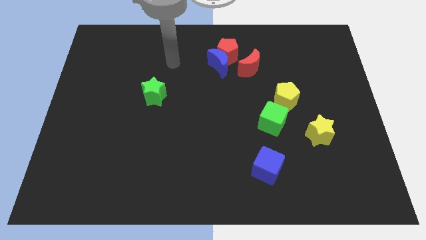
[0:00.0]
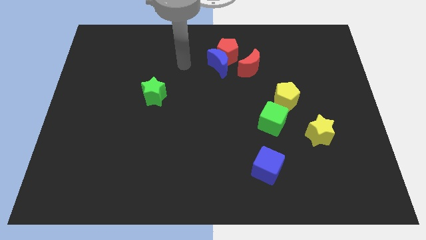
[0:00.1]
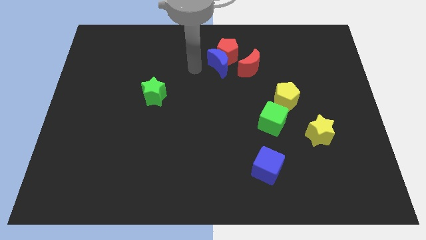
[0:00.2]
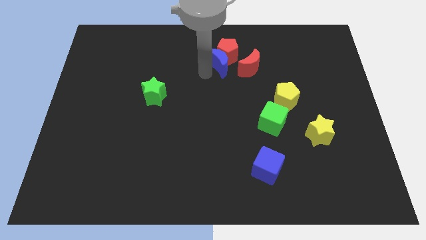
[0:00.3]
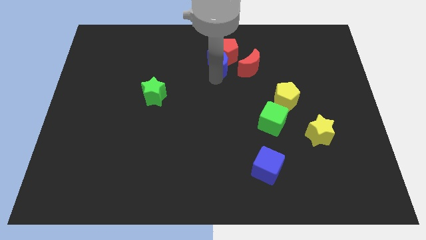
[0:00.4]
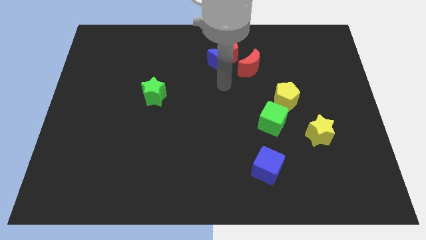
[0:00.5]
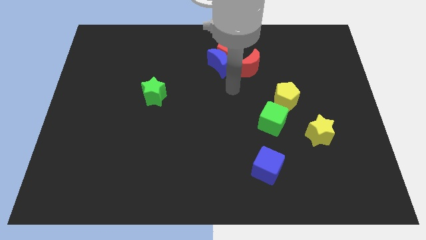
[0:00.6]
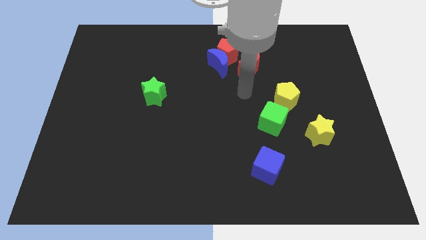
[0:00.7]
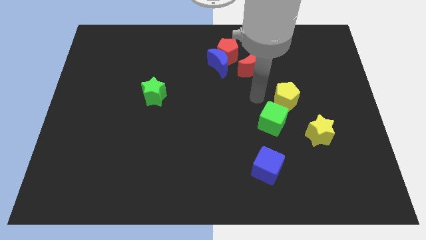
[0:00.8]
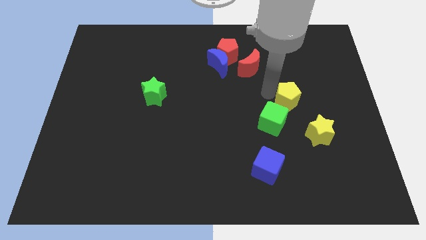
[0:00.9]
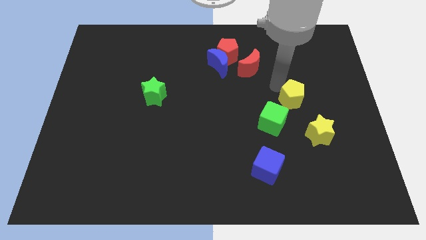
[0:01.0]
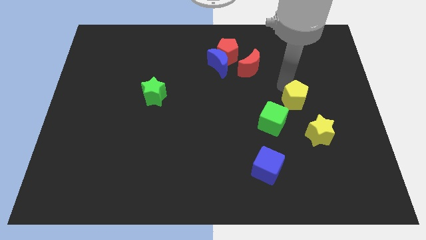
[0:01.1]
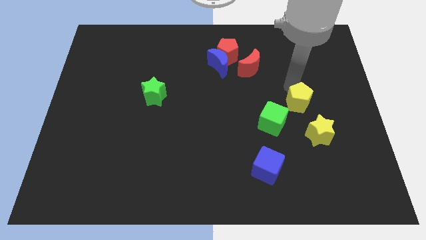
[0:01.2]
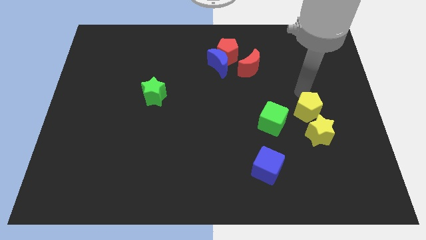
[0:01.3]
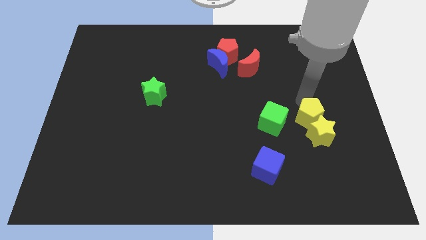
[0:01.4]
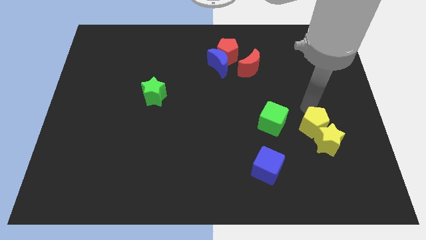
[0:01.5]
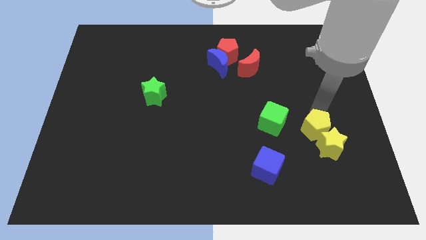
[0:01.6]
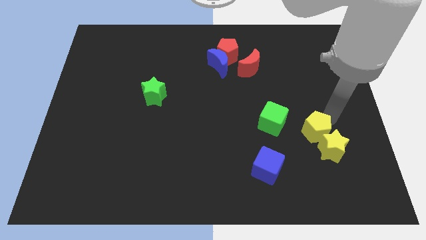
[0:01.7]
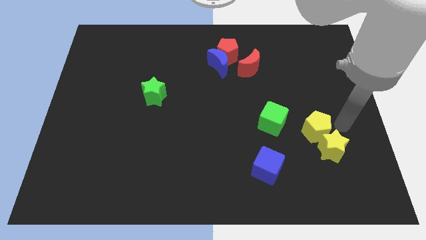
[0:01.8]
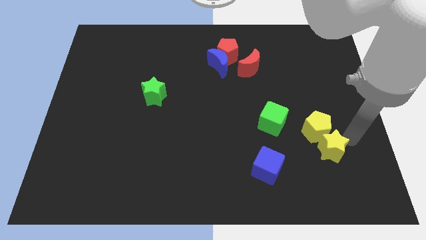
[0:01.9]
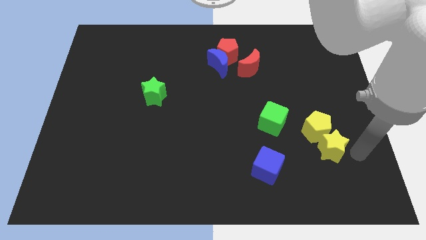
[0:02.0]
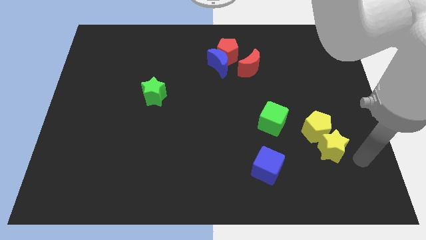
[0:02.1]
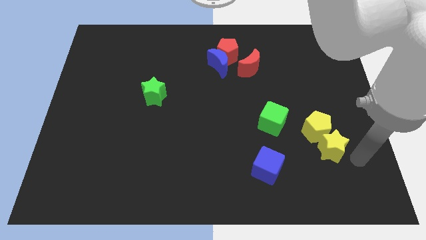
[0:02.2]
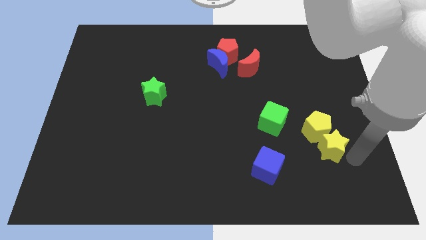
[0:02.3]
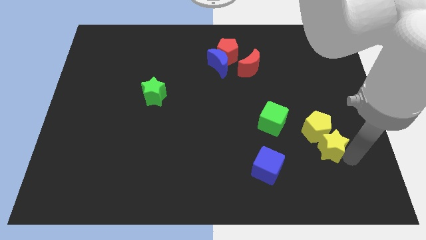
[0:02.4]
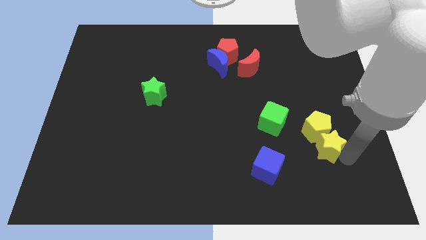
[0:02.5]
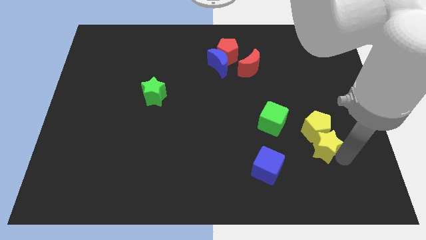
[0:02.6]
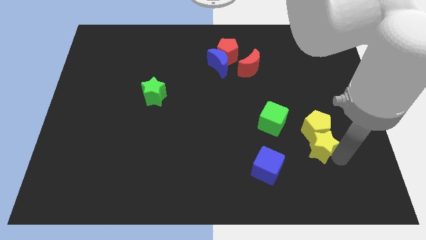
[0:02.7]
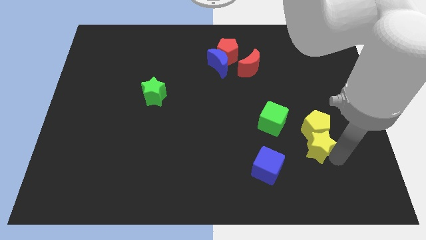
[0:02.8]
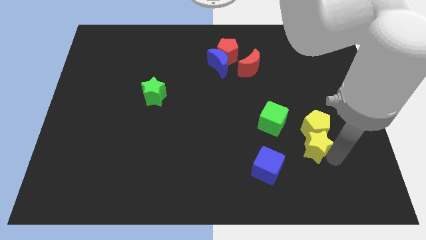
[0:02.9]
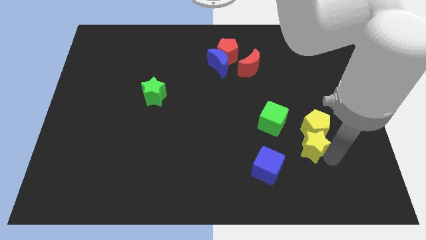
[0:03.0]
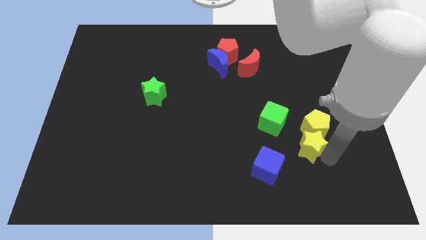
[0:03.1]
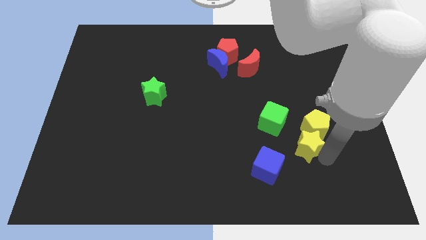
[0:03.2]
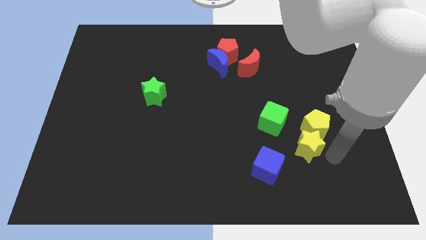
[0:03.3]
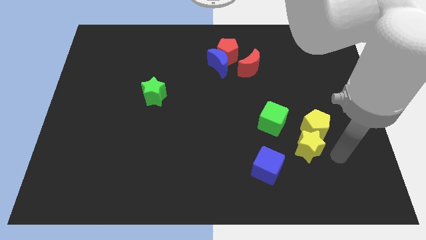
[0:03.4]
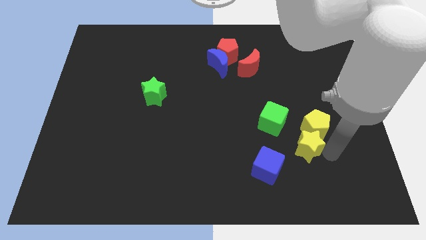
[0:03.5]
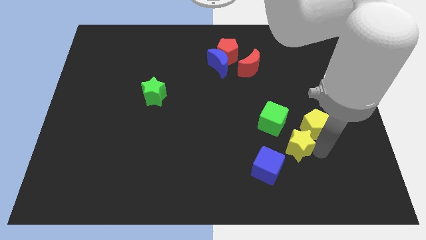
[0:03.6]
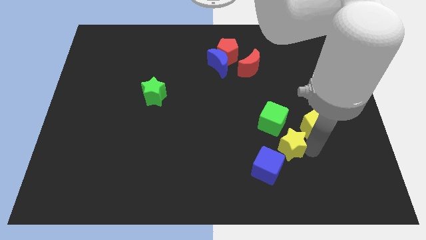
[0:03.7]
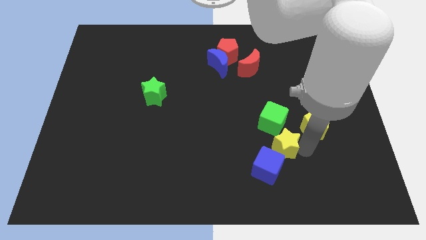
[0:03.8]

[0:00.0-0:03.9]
push the yellow star left a bit

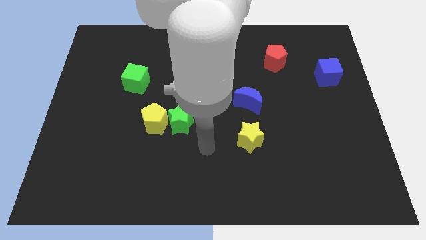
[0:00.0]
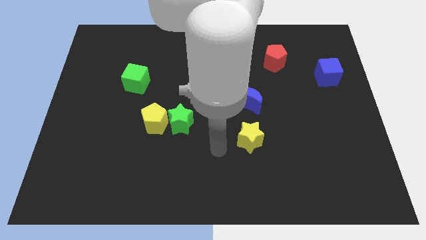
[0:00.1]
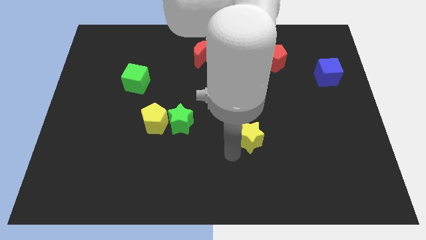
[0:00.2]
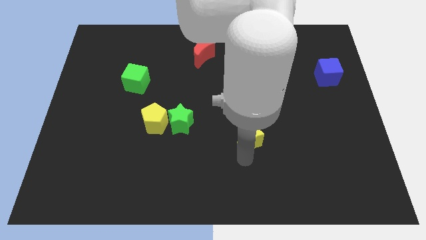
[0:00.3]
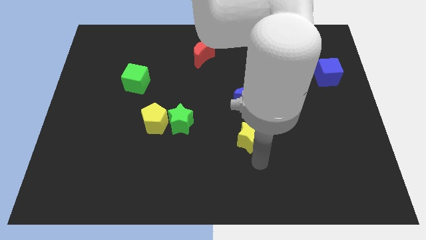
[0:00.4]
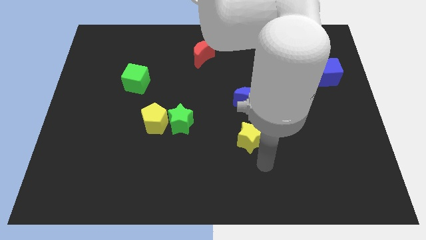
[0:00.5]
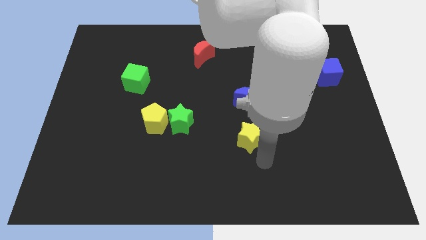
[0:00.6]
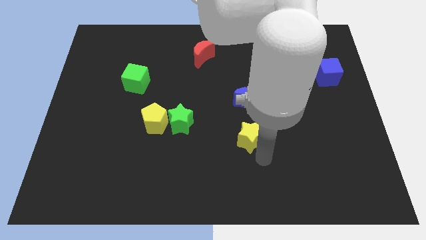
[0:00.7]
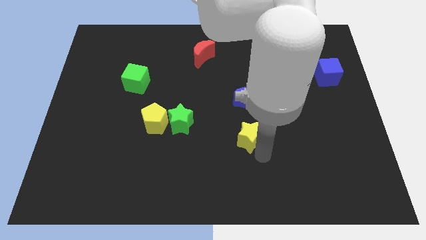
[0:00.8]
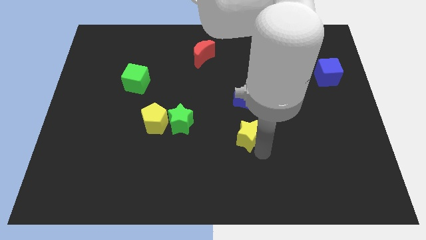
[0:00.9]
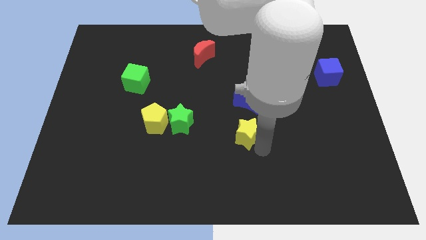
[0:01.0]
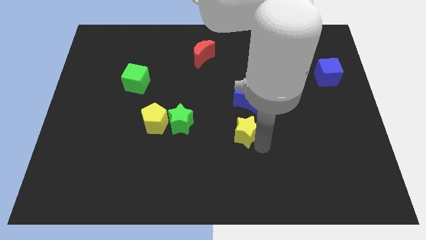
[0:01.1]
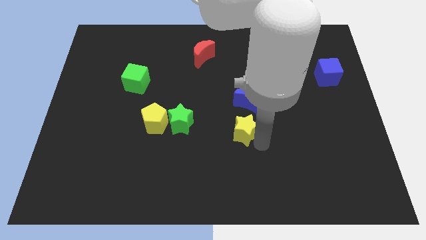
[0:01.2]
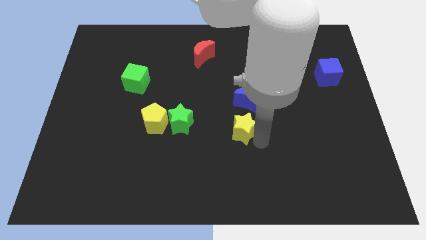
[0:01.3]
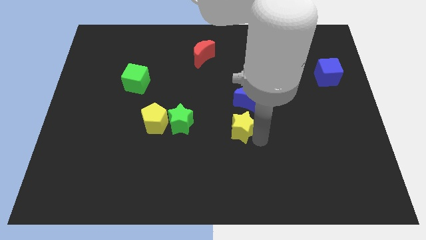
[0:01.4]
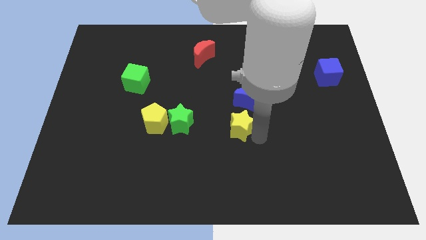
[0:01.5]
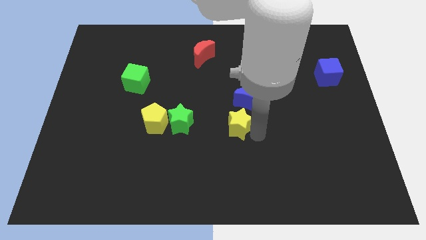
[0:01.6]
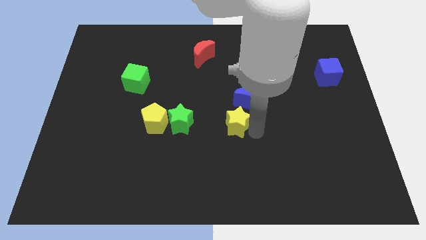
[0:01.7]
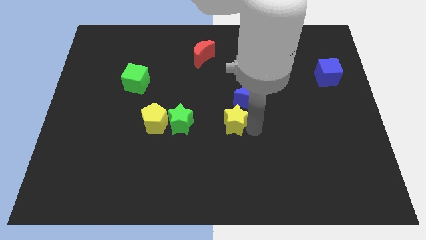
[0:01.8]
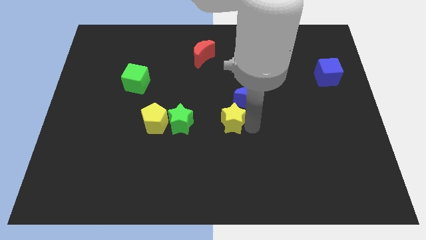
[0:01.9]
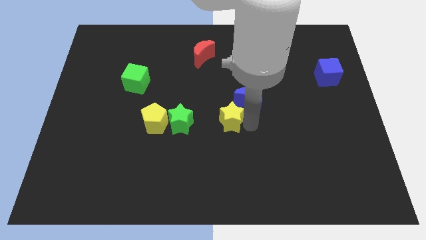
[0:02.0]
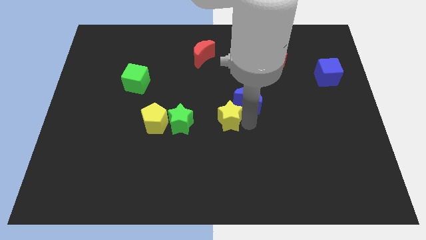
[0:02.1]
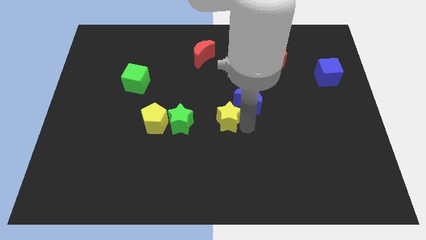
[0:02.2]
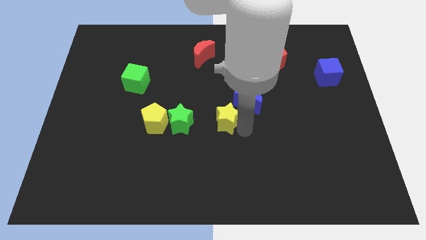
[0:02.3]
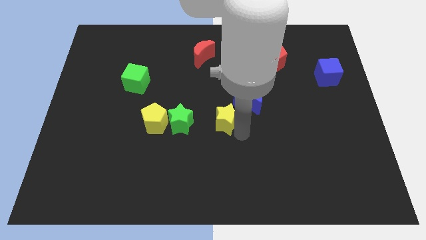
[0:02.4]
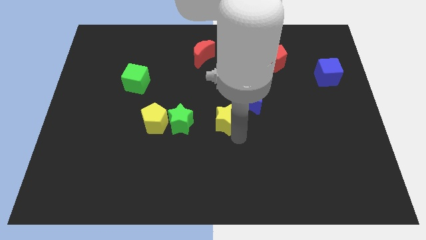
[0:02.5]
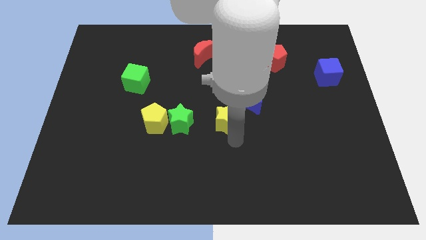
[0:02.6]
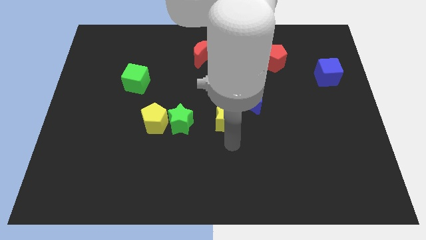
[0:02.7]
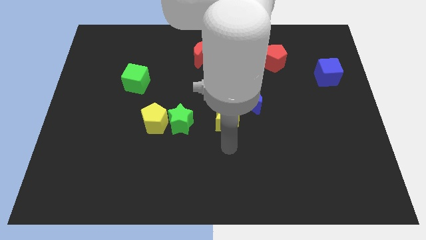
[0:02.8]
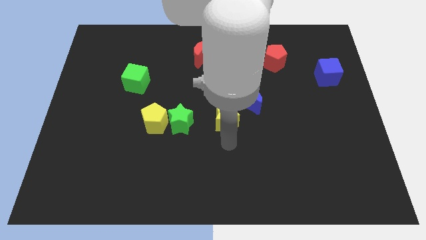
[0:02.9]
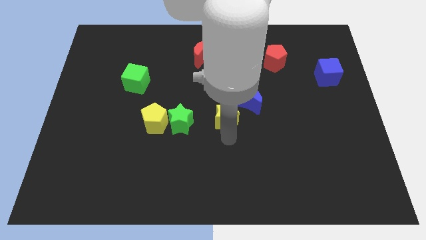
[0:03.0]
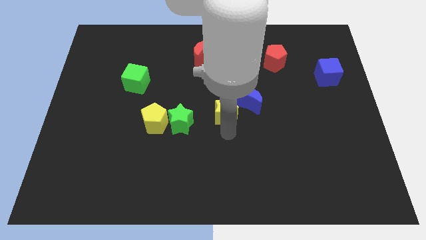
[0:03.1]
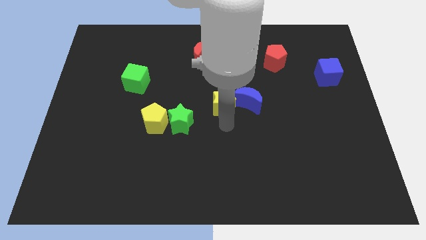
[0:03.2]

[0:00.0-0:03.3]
move the yellow star upwards slightly

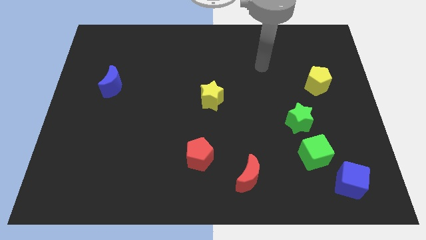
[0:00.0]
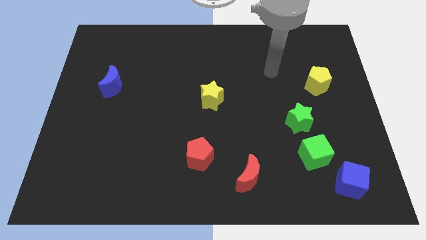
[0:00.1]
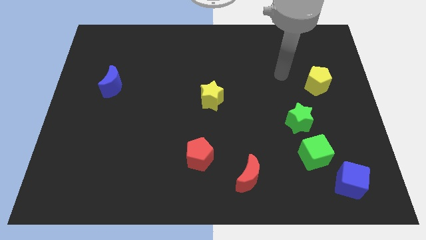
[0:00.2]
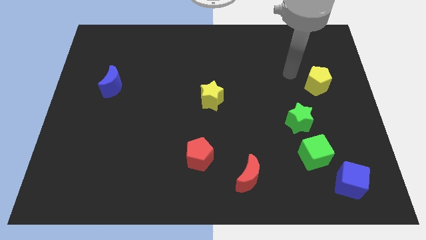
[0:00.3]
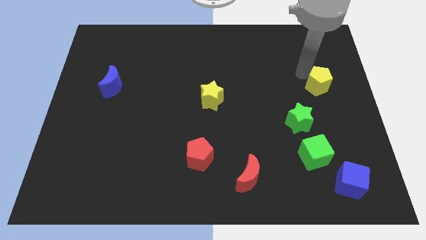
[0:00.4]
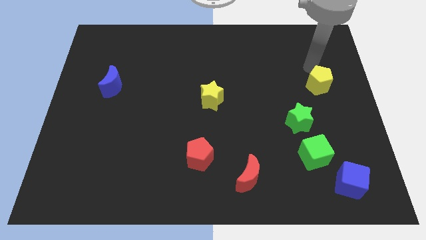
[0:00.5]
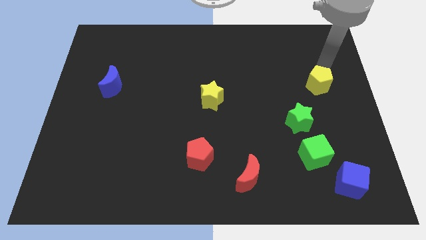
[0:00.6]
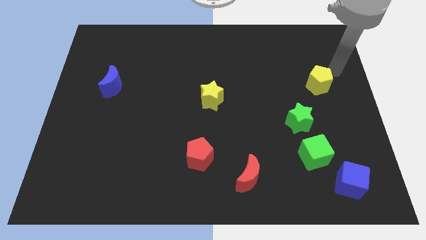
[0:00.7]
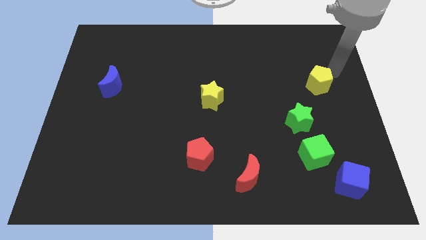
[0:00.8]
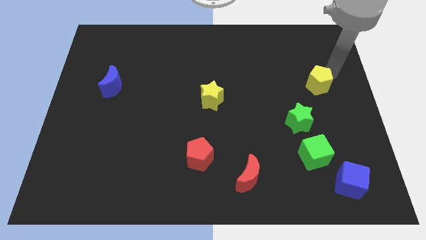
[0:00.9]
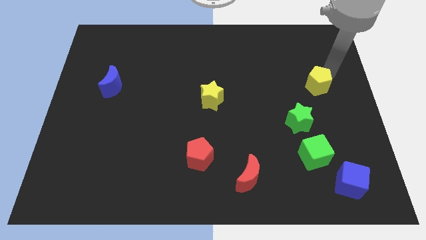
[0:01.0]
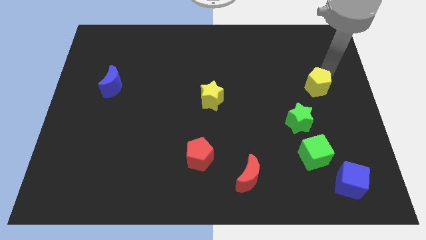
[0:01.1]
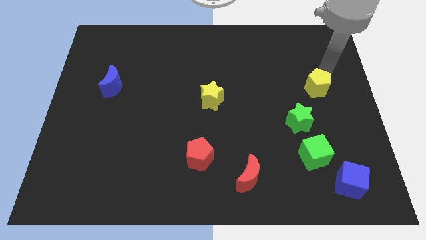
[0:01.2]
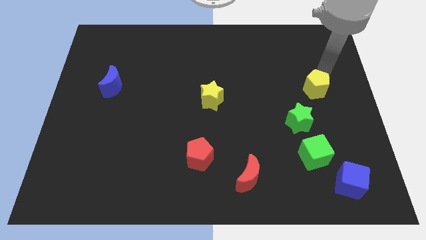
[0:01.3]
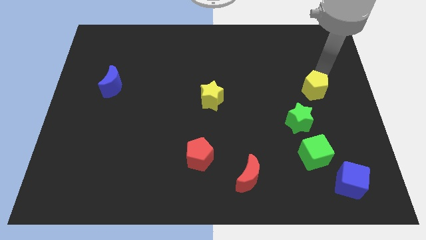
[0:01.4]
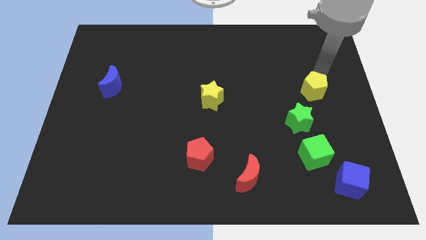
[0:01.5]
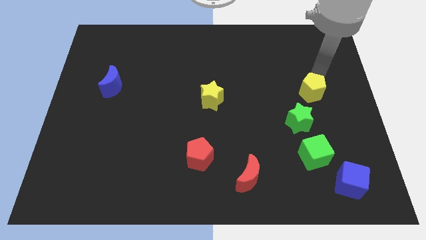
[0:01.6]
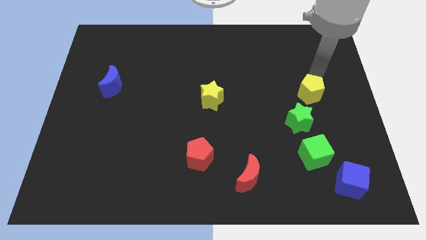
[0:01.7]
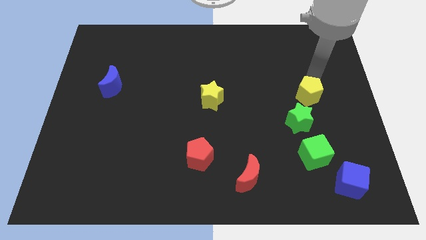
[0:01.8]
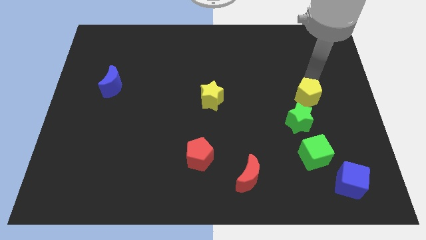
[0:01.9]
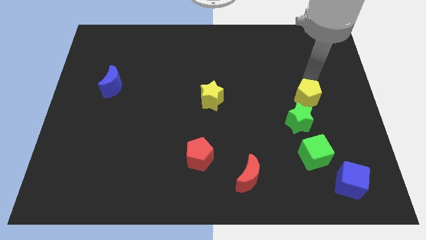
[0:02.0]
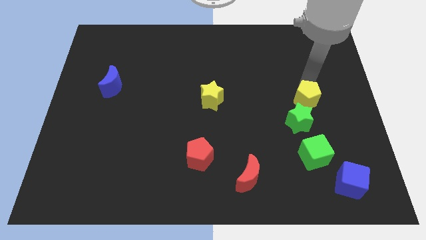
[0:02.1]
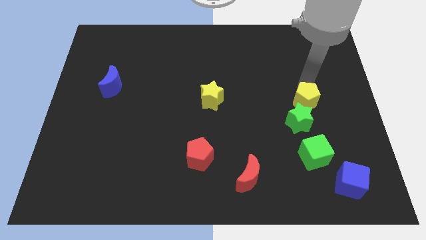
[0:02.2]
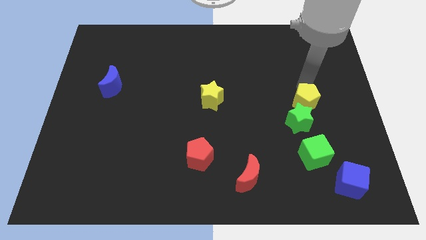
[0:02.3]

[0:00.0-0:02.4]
move the yellow pentagon slightly down and then left
